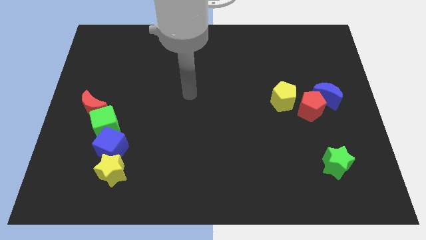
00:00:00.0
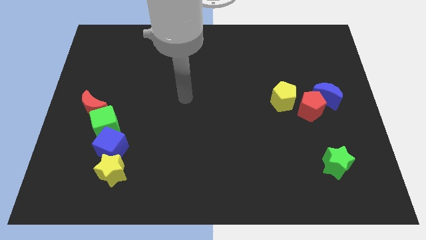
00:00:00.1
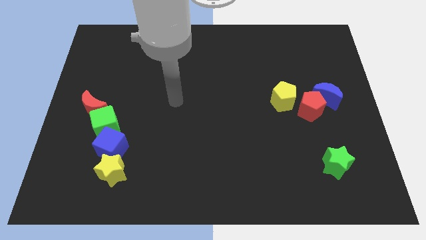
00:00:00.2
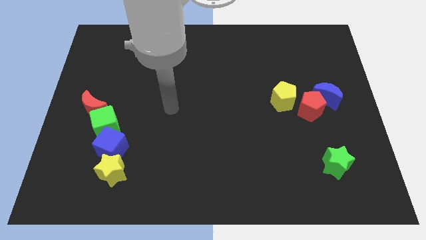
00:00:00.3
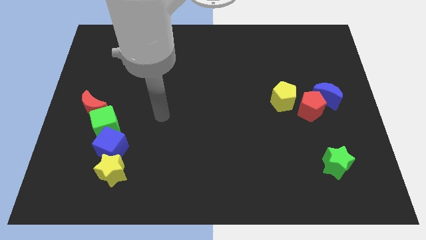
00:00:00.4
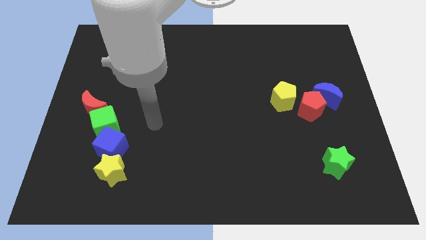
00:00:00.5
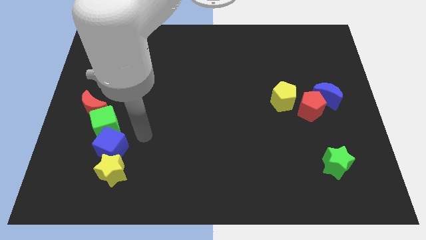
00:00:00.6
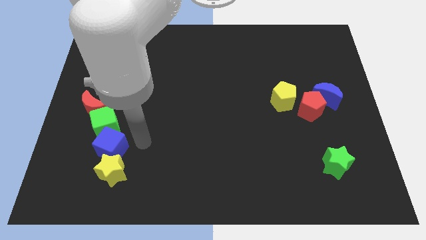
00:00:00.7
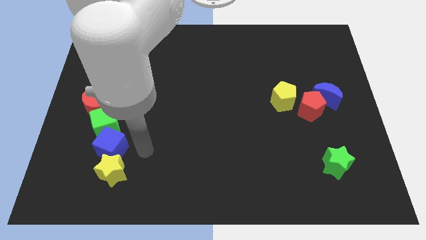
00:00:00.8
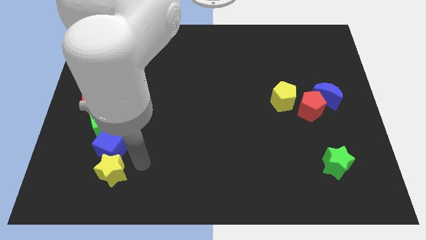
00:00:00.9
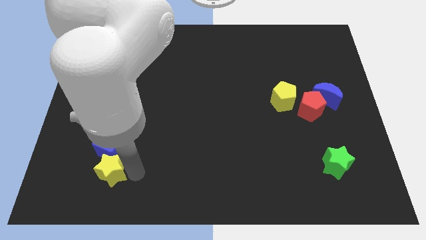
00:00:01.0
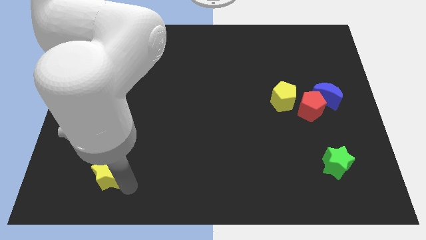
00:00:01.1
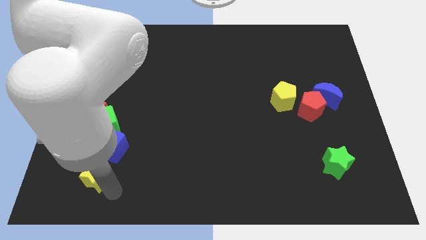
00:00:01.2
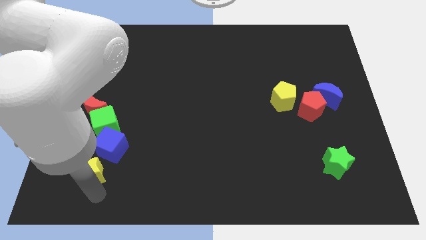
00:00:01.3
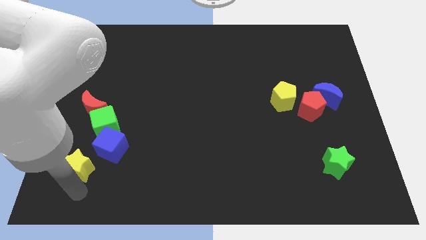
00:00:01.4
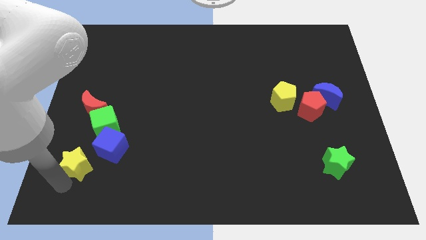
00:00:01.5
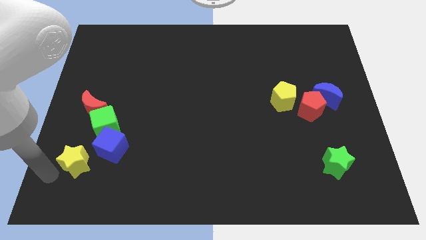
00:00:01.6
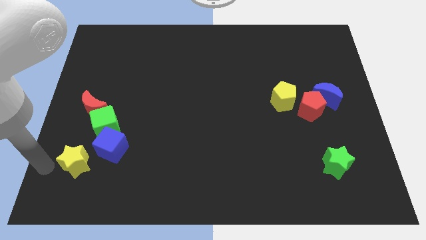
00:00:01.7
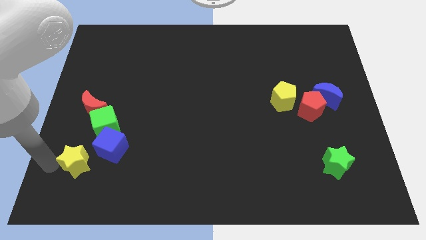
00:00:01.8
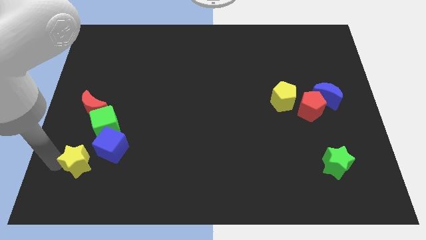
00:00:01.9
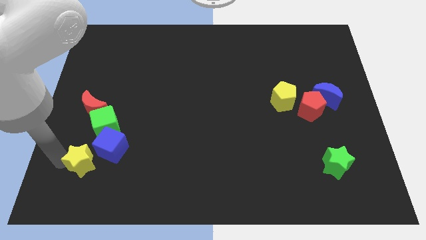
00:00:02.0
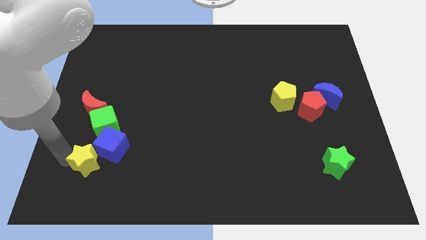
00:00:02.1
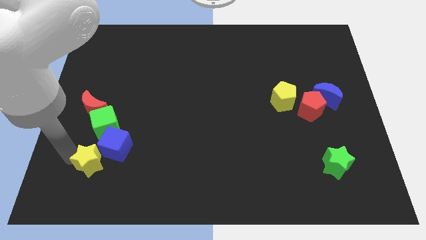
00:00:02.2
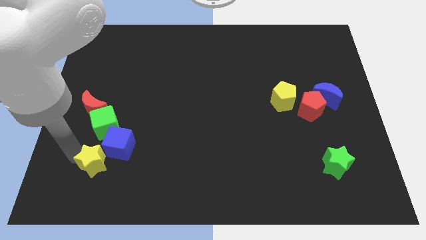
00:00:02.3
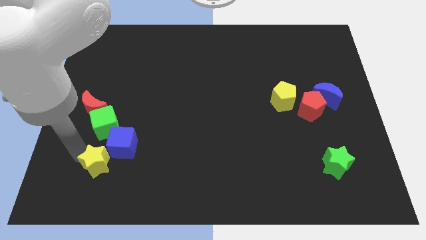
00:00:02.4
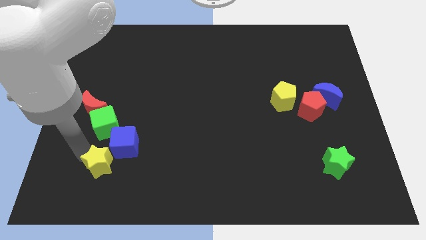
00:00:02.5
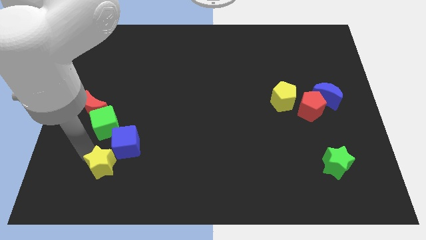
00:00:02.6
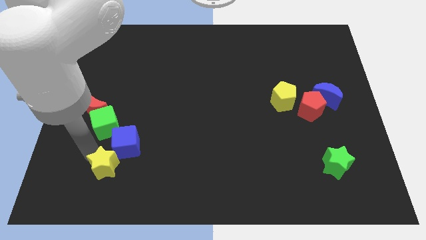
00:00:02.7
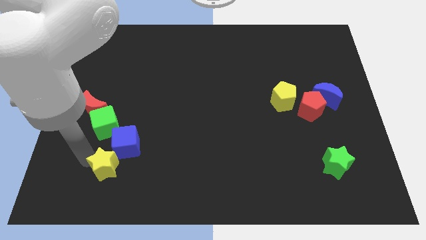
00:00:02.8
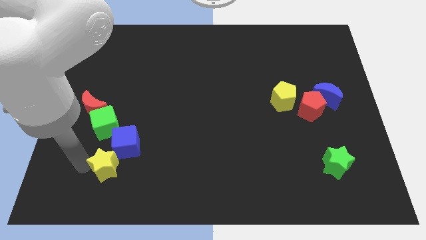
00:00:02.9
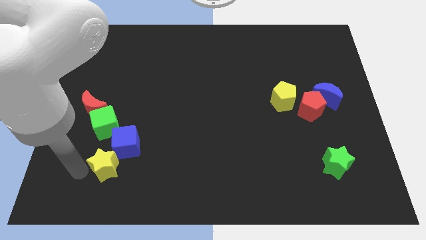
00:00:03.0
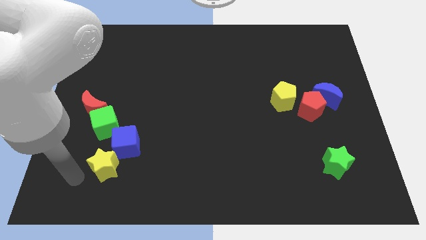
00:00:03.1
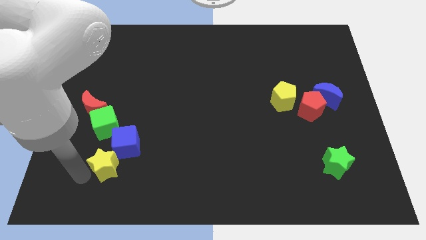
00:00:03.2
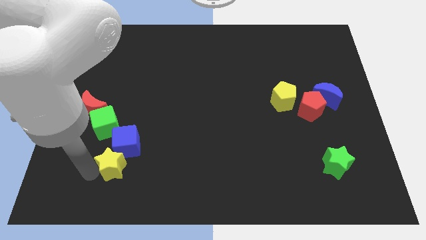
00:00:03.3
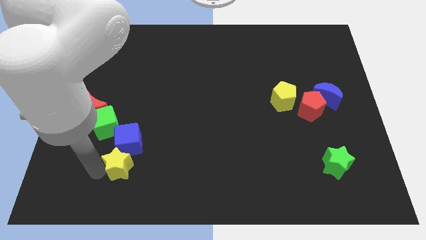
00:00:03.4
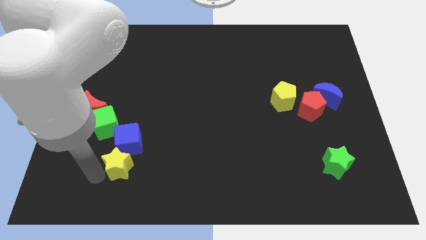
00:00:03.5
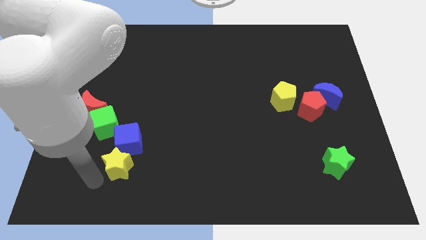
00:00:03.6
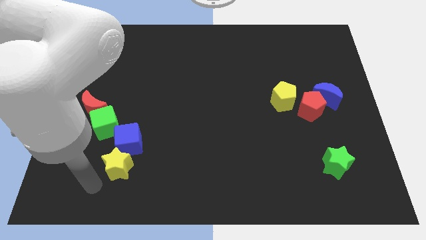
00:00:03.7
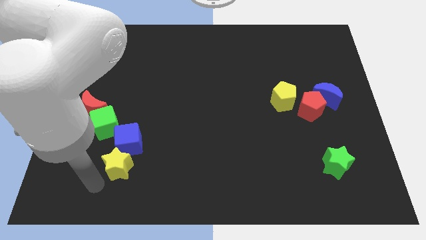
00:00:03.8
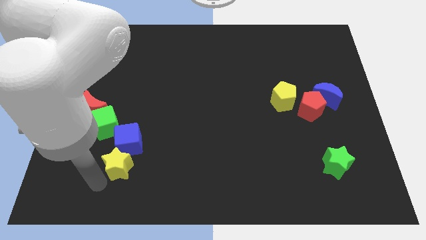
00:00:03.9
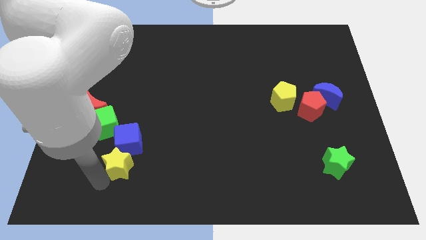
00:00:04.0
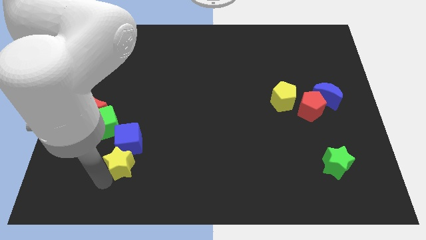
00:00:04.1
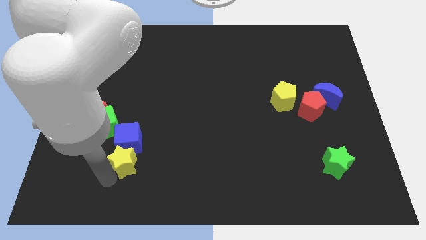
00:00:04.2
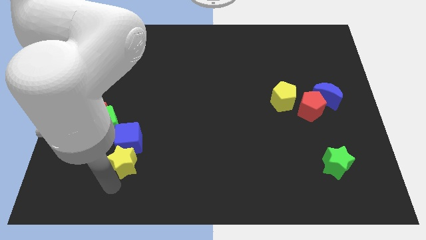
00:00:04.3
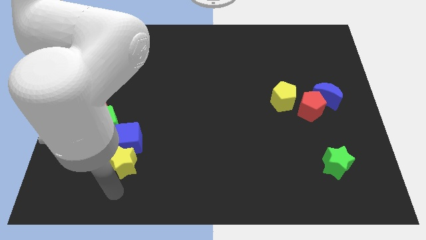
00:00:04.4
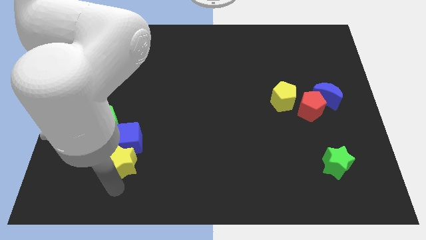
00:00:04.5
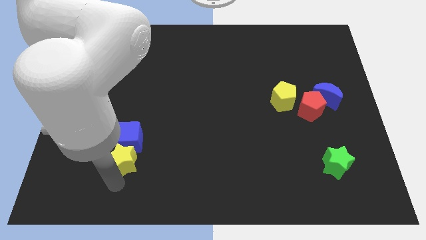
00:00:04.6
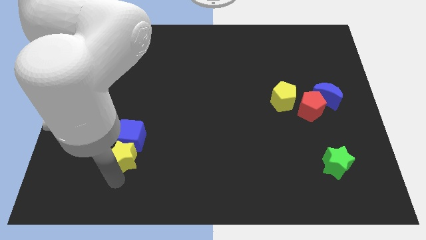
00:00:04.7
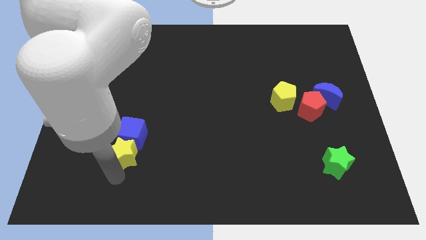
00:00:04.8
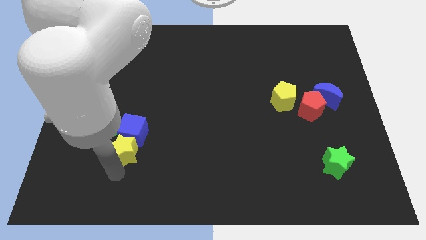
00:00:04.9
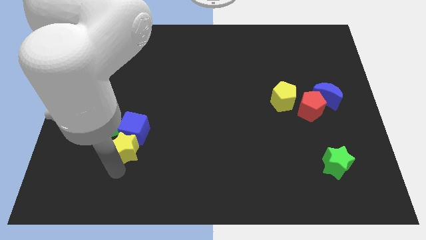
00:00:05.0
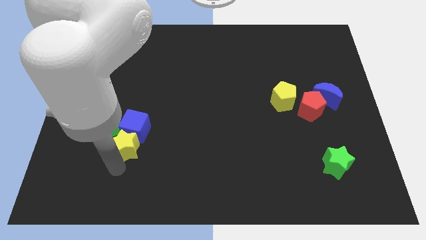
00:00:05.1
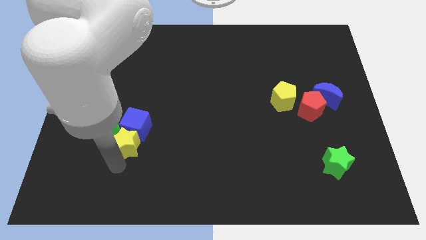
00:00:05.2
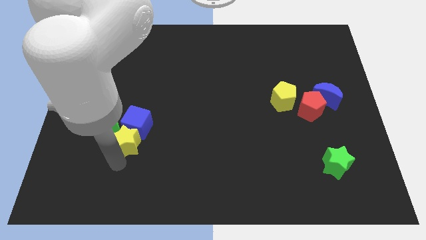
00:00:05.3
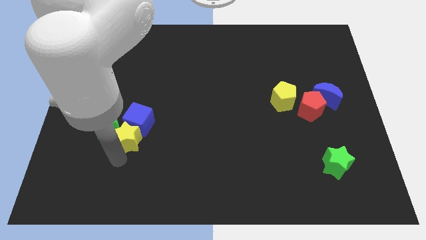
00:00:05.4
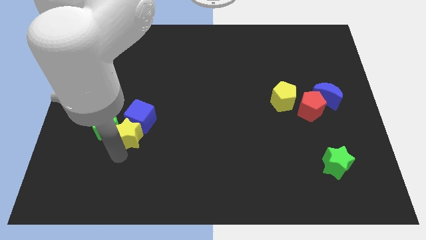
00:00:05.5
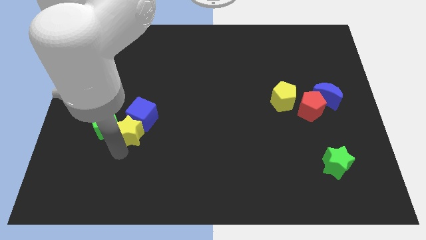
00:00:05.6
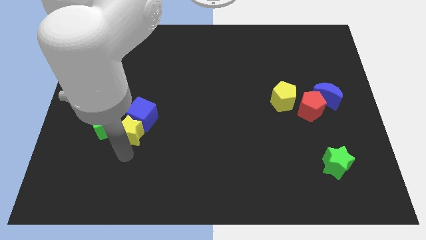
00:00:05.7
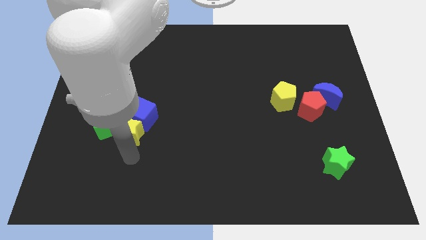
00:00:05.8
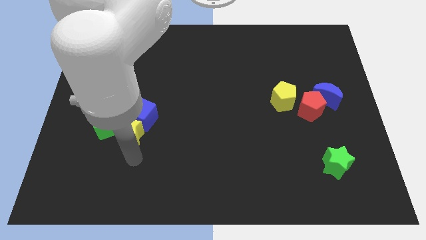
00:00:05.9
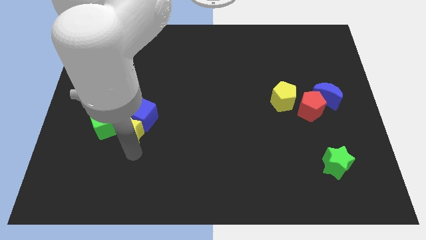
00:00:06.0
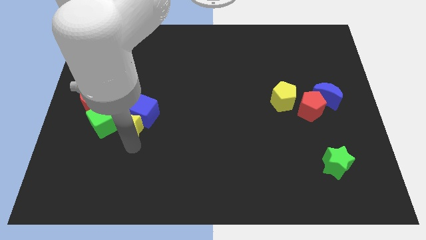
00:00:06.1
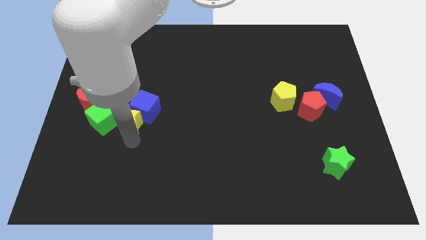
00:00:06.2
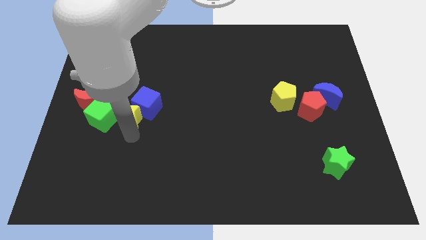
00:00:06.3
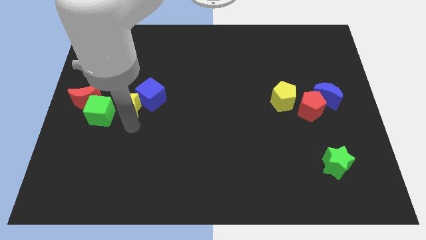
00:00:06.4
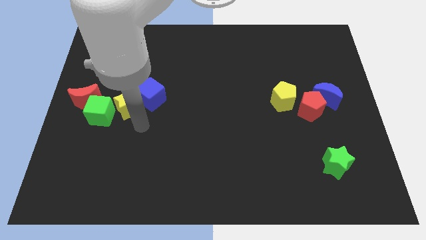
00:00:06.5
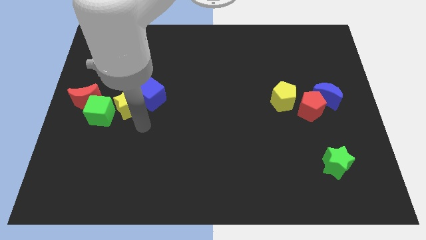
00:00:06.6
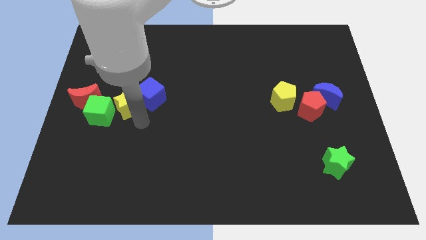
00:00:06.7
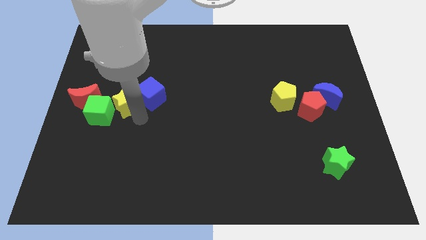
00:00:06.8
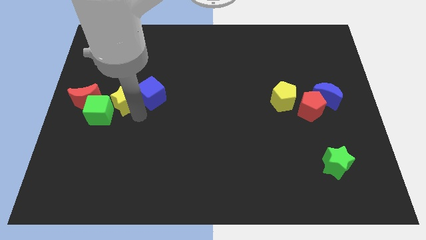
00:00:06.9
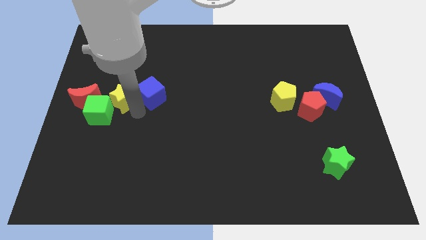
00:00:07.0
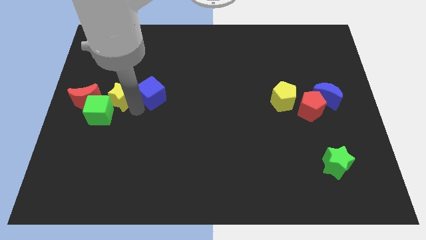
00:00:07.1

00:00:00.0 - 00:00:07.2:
push the yellow star to the top of the green cube
